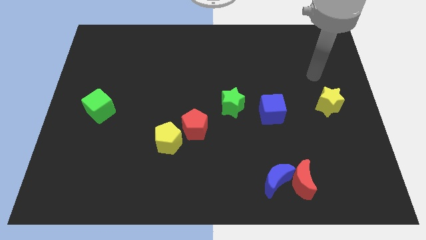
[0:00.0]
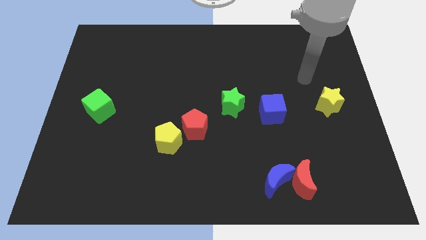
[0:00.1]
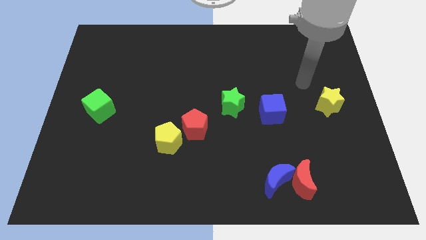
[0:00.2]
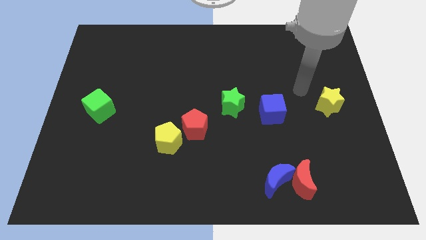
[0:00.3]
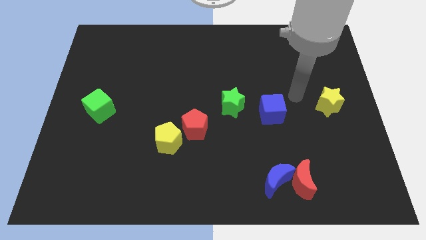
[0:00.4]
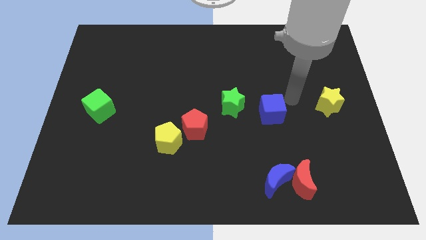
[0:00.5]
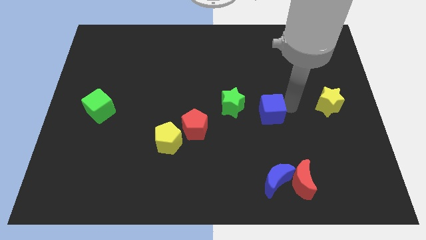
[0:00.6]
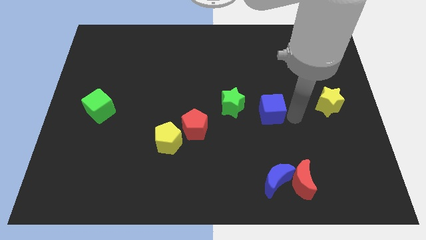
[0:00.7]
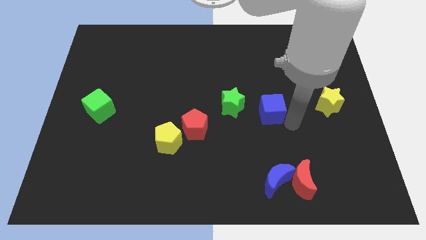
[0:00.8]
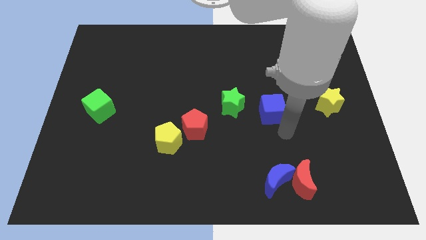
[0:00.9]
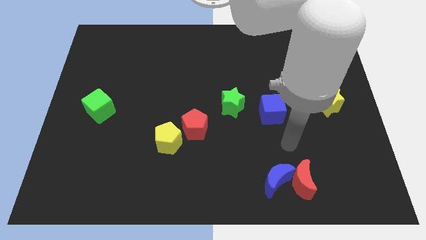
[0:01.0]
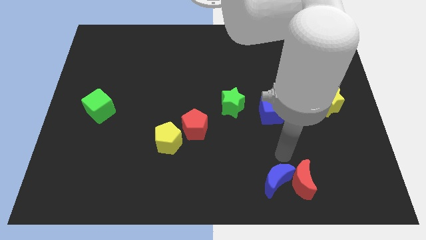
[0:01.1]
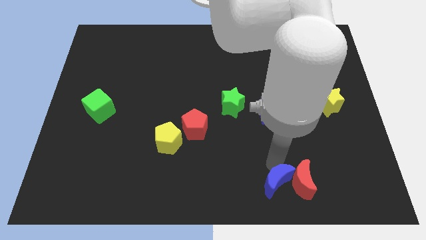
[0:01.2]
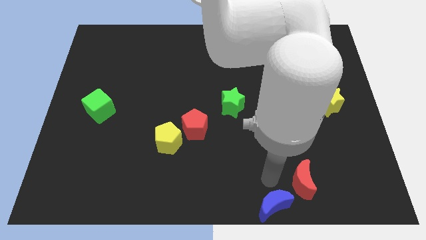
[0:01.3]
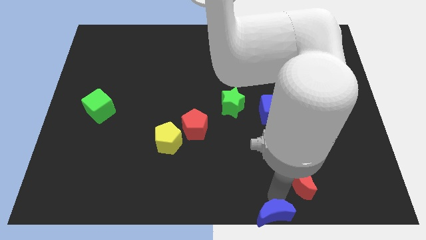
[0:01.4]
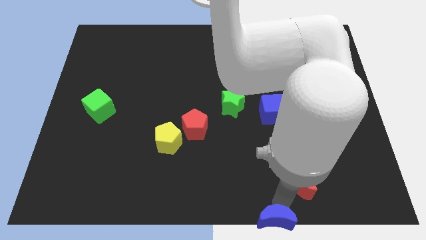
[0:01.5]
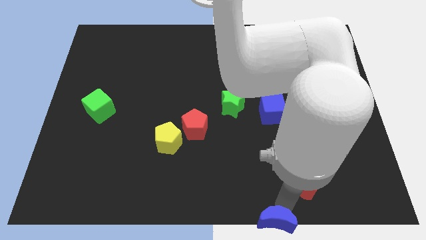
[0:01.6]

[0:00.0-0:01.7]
move the red moon away from the blue moon

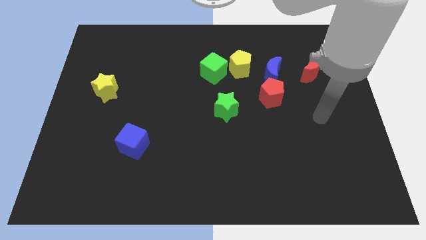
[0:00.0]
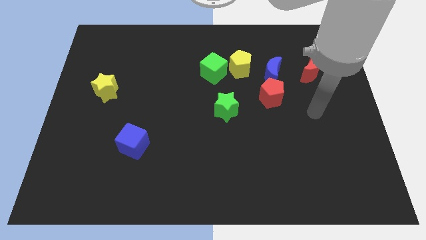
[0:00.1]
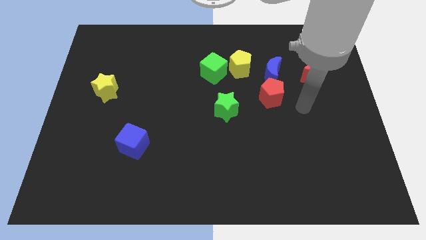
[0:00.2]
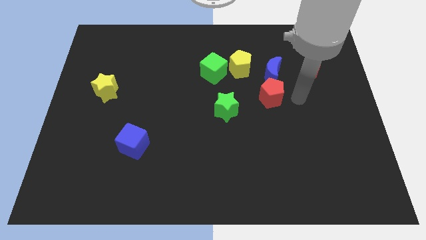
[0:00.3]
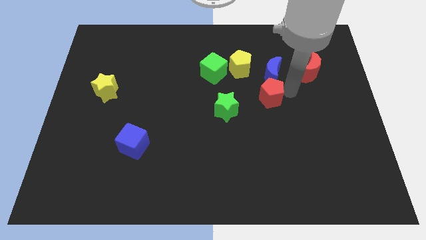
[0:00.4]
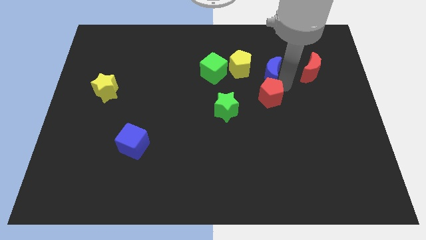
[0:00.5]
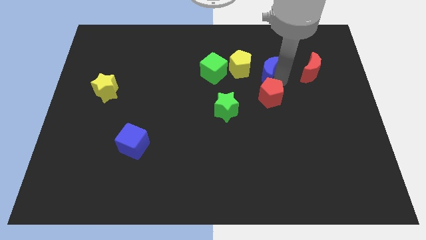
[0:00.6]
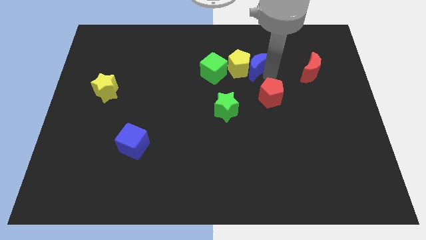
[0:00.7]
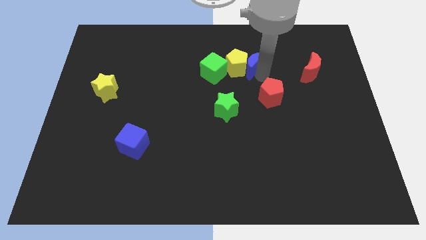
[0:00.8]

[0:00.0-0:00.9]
separate the red pentagon from the blue moon

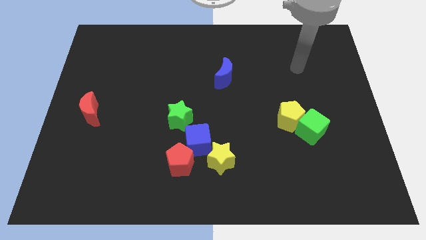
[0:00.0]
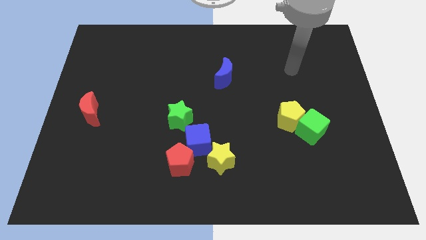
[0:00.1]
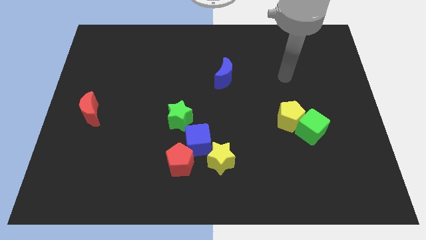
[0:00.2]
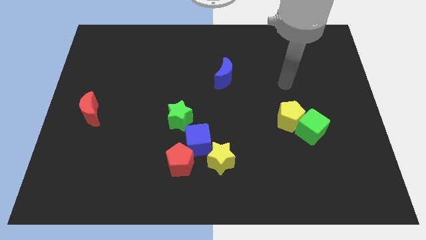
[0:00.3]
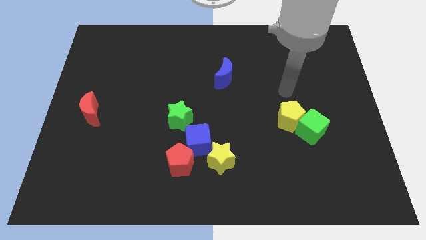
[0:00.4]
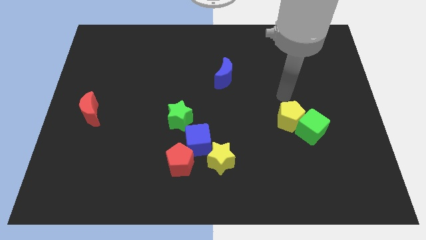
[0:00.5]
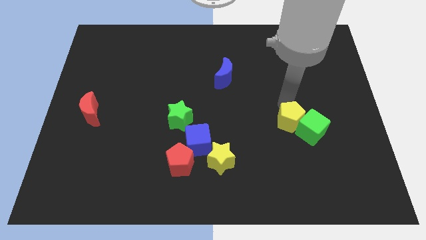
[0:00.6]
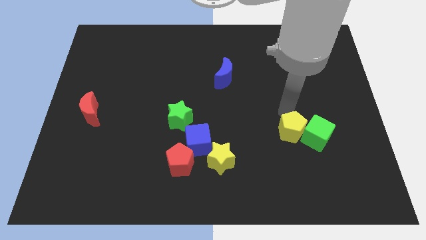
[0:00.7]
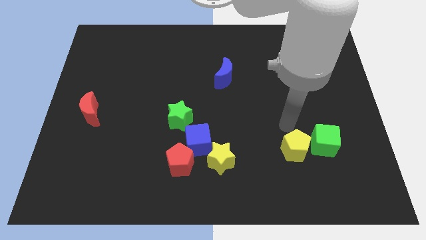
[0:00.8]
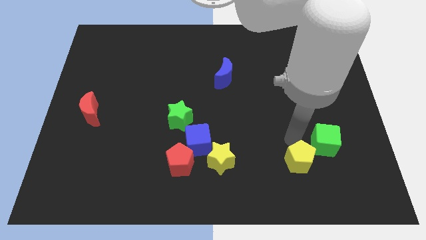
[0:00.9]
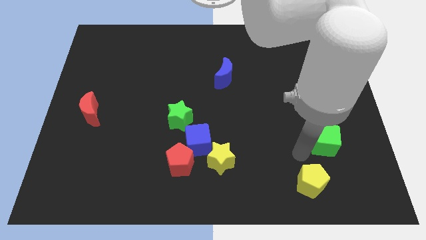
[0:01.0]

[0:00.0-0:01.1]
move the green cube away from the yellow pentagon

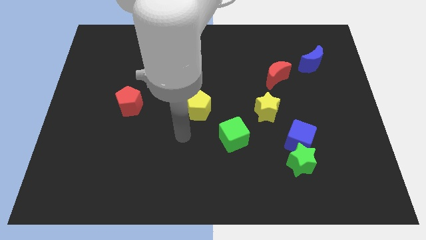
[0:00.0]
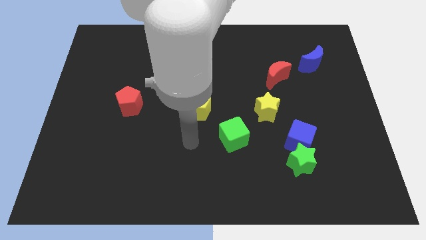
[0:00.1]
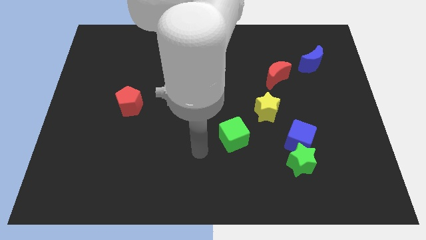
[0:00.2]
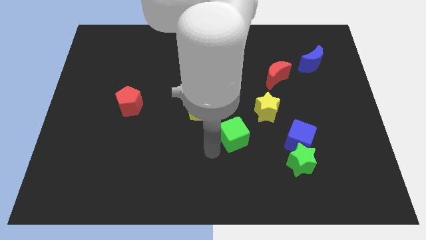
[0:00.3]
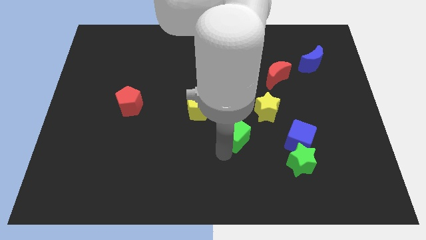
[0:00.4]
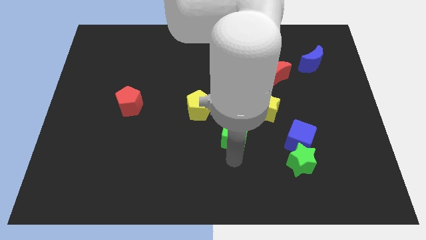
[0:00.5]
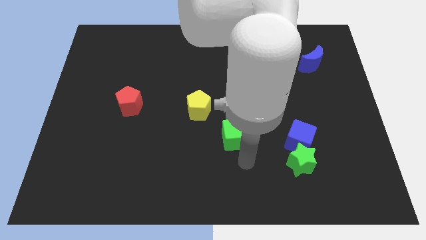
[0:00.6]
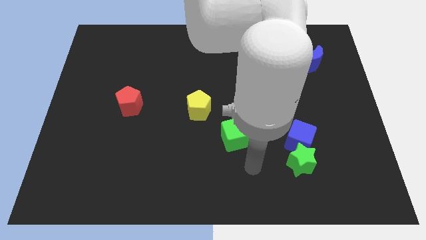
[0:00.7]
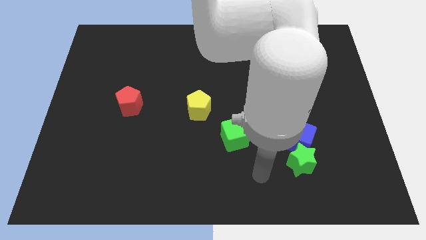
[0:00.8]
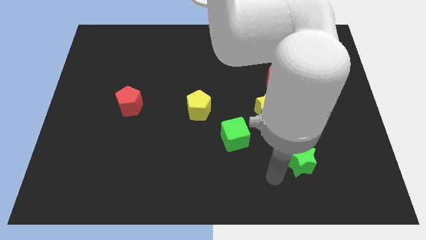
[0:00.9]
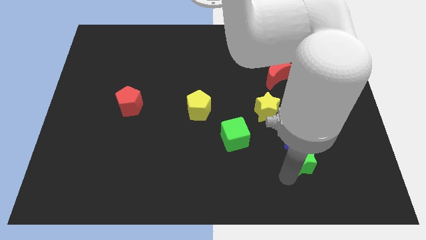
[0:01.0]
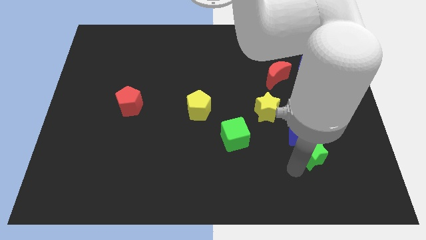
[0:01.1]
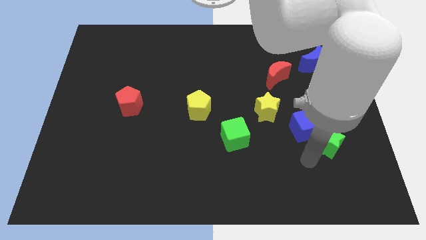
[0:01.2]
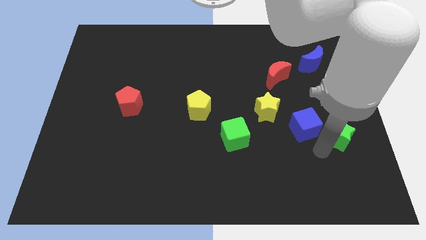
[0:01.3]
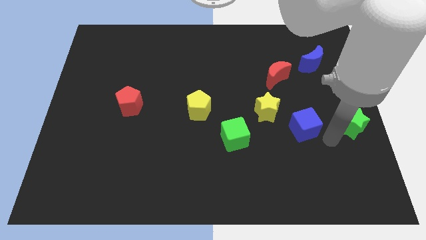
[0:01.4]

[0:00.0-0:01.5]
separate the blue cube from the green star

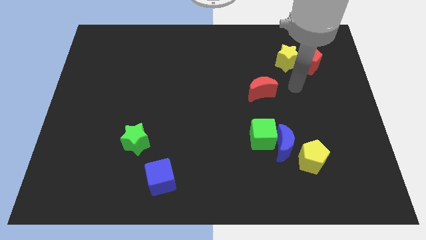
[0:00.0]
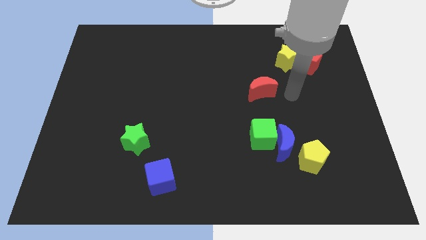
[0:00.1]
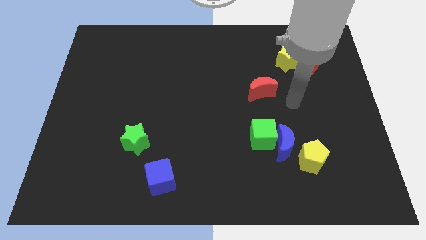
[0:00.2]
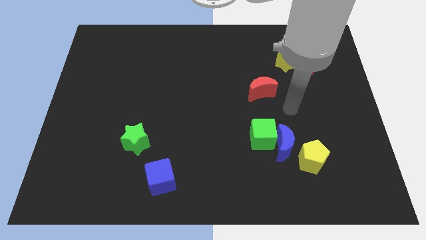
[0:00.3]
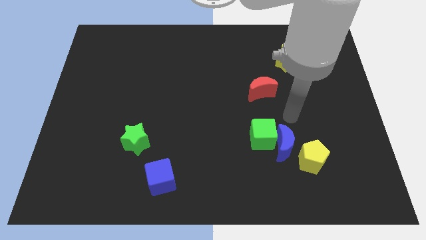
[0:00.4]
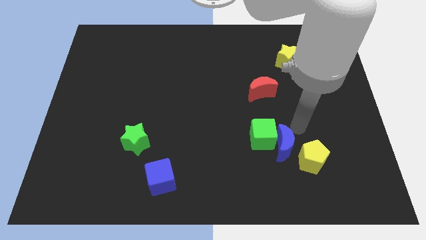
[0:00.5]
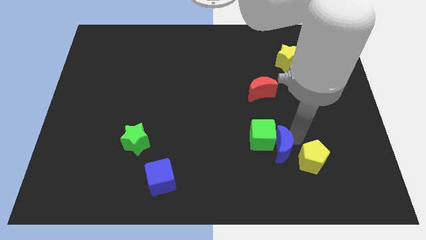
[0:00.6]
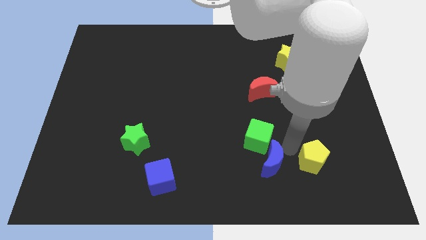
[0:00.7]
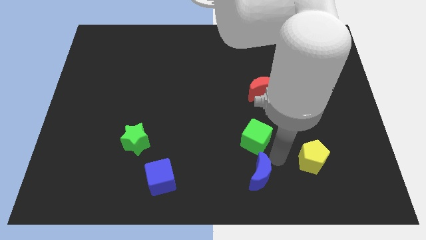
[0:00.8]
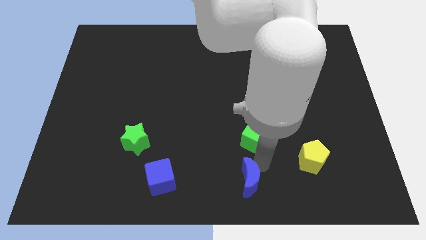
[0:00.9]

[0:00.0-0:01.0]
pull the green cube apart from the blue moon

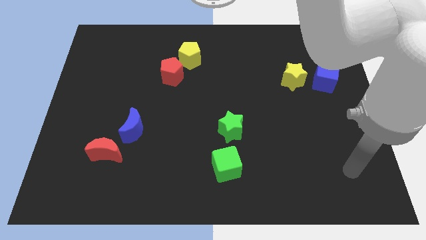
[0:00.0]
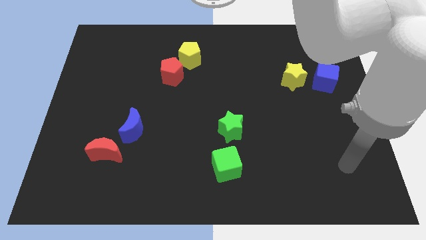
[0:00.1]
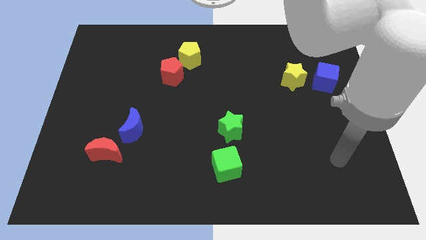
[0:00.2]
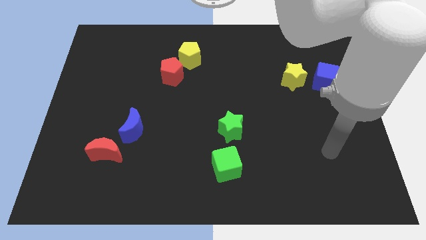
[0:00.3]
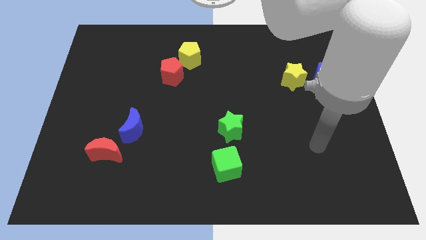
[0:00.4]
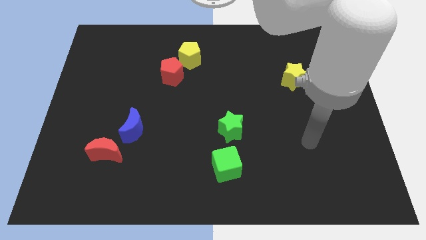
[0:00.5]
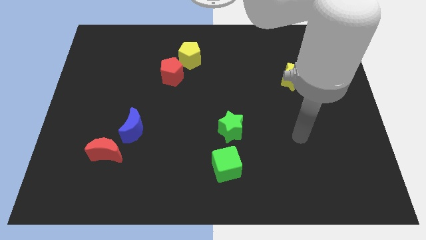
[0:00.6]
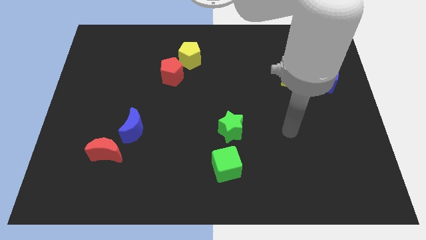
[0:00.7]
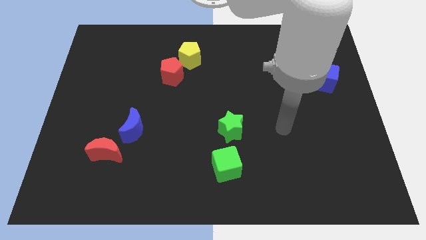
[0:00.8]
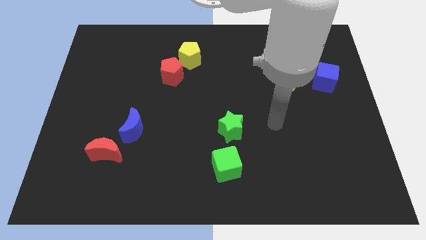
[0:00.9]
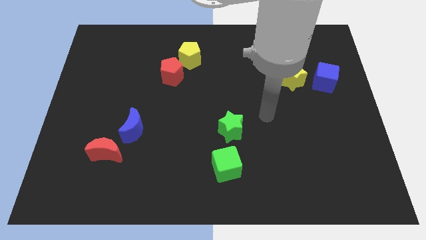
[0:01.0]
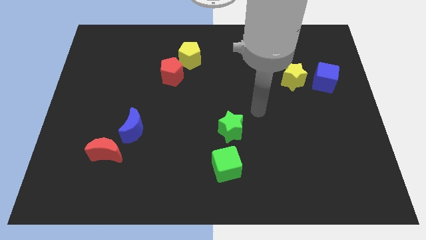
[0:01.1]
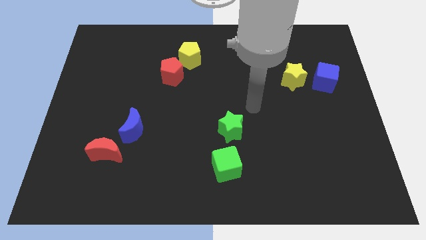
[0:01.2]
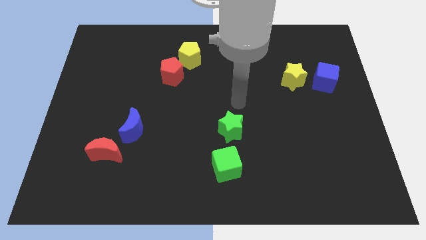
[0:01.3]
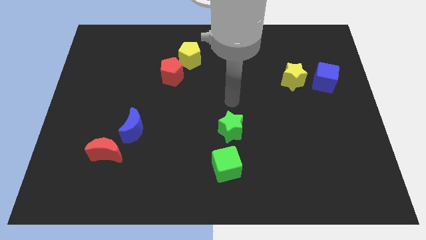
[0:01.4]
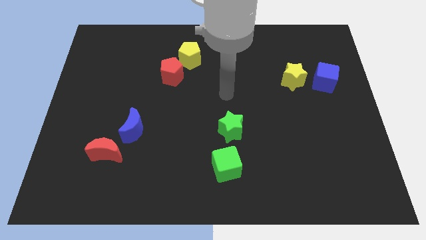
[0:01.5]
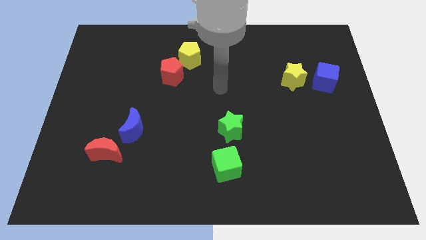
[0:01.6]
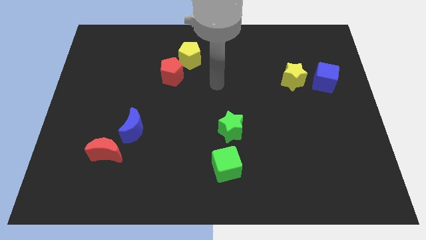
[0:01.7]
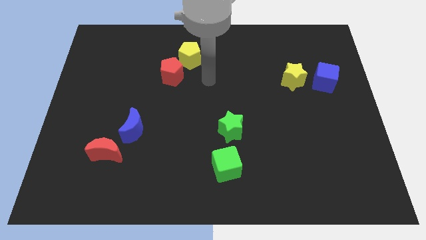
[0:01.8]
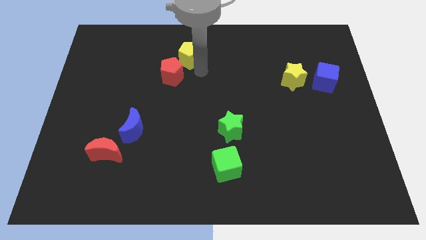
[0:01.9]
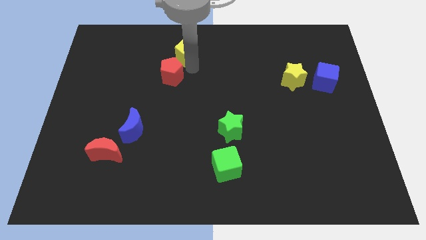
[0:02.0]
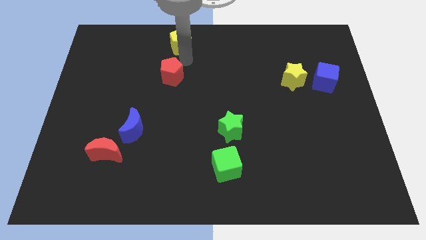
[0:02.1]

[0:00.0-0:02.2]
separate the red pentagon from the yellow pentagon

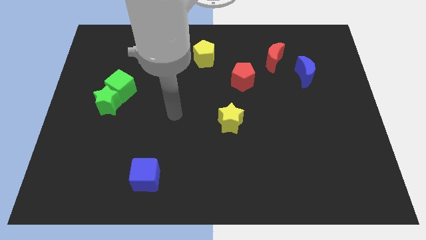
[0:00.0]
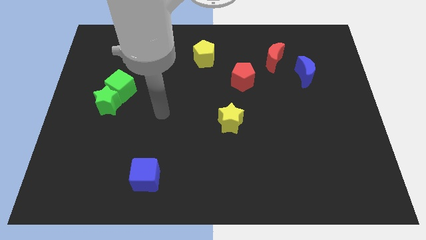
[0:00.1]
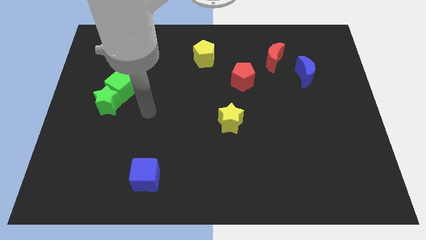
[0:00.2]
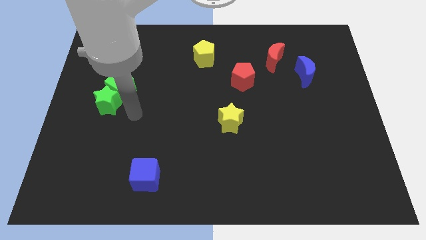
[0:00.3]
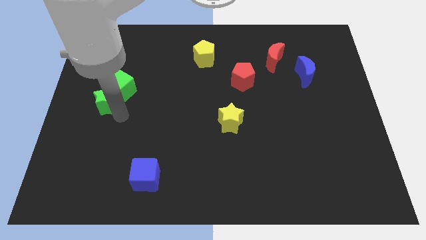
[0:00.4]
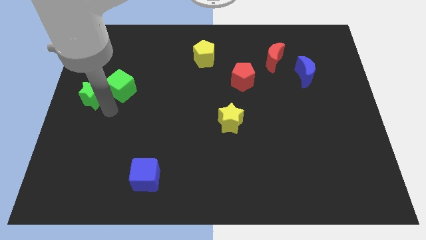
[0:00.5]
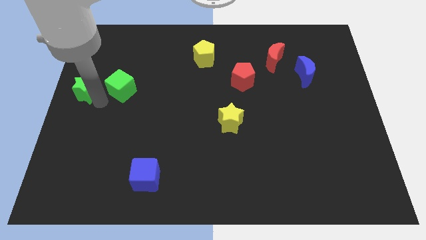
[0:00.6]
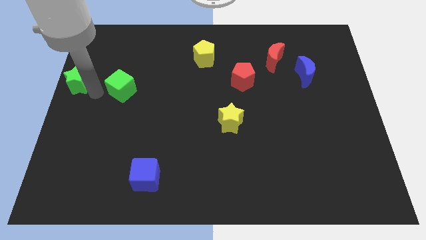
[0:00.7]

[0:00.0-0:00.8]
move the green cube away from the green star
